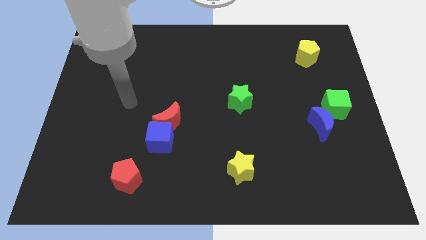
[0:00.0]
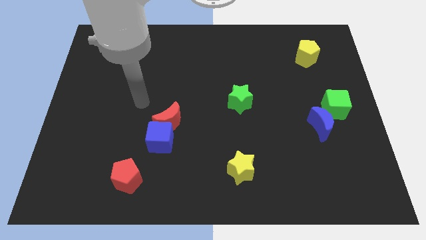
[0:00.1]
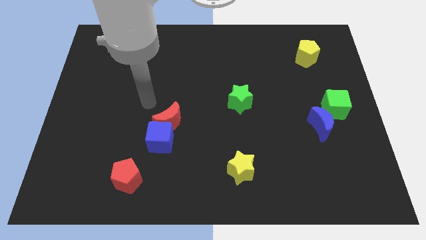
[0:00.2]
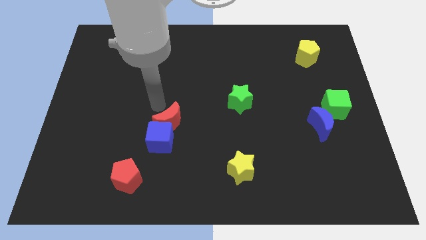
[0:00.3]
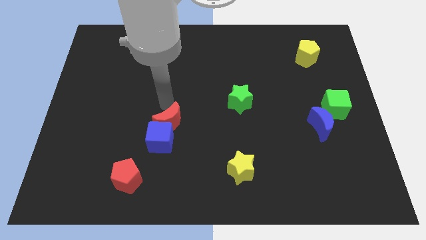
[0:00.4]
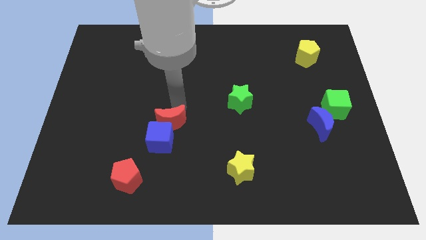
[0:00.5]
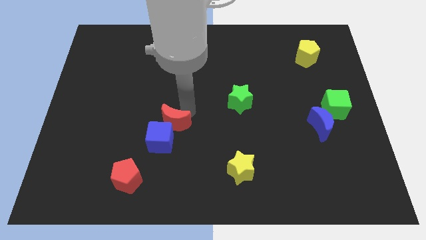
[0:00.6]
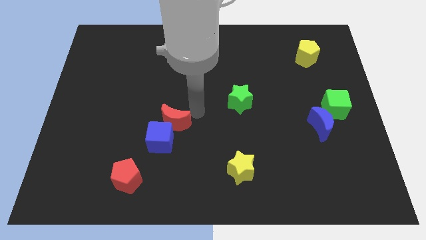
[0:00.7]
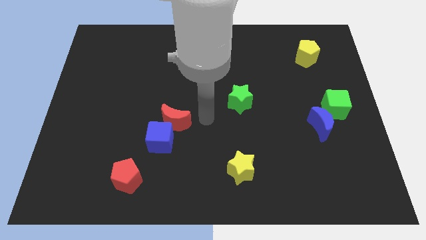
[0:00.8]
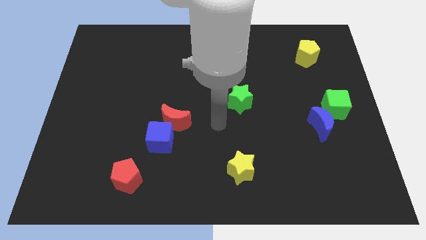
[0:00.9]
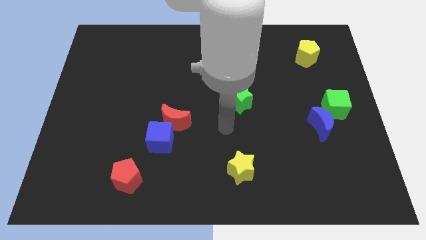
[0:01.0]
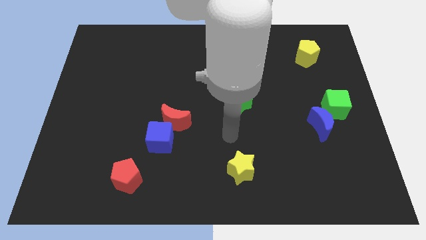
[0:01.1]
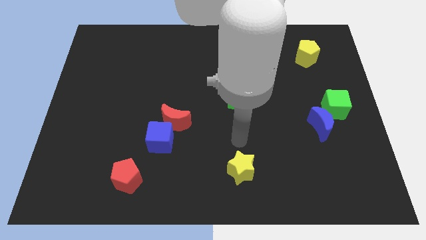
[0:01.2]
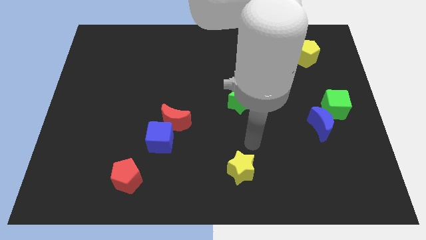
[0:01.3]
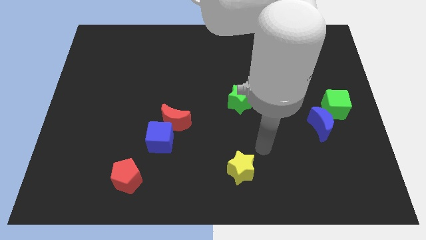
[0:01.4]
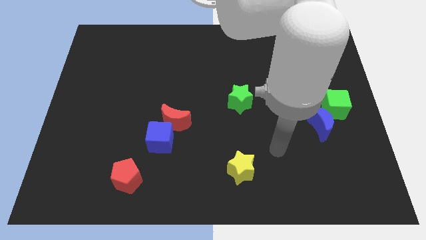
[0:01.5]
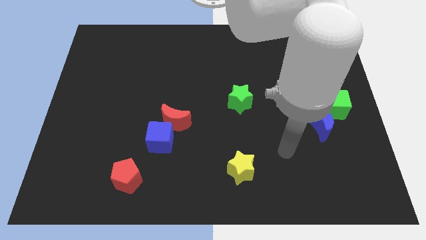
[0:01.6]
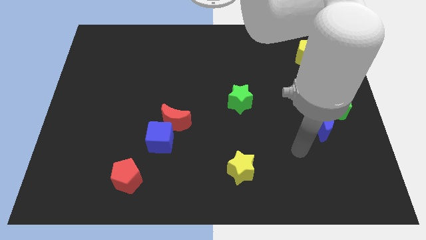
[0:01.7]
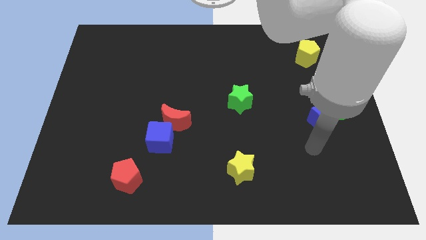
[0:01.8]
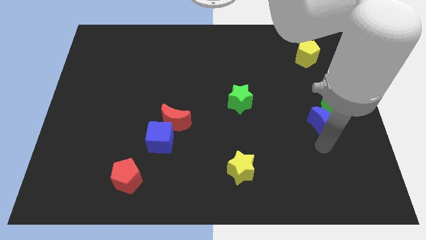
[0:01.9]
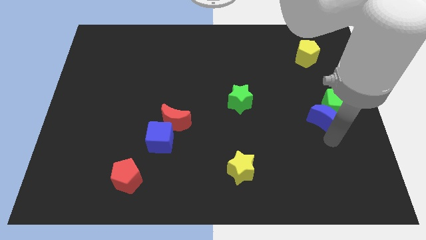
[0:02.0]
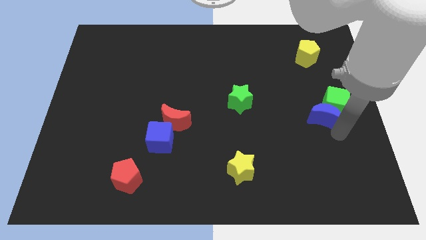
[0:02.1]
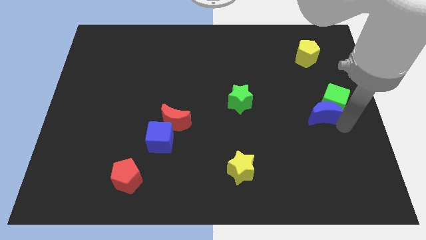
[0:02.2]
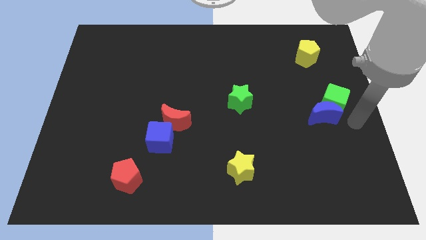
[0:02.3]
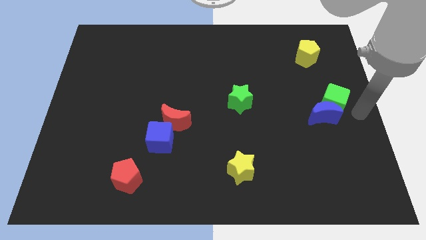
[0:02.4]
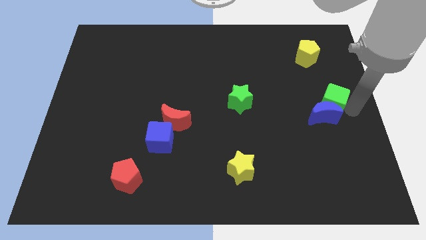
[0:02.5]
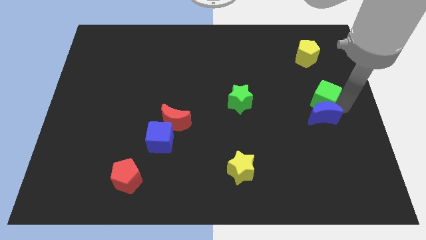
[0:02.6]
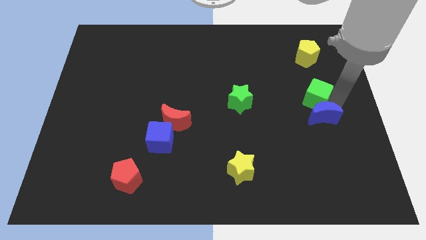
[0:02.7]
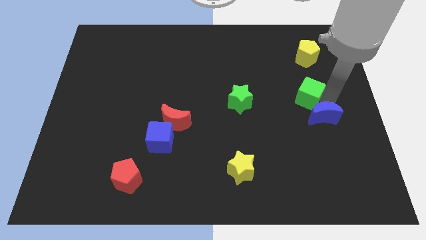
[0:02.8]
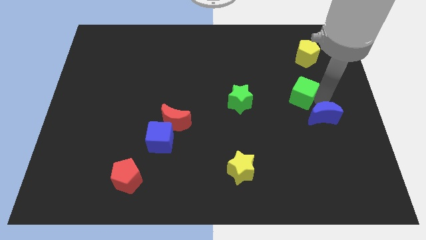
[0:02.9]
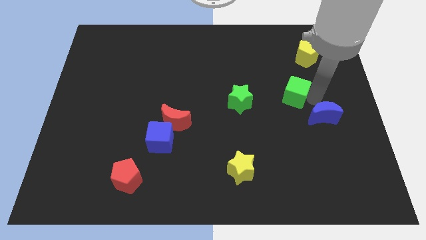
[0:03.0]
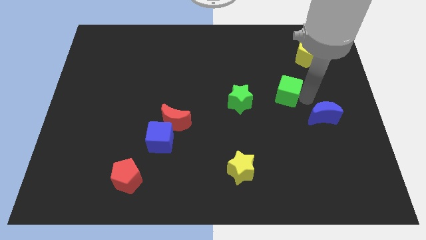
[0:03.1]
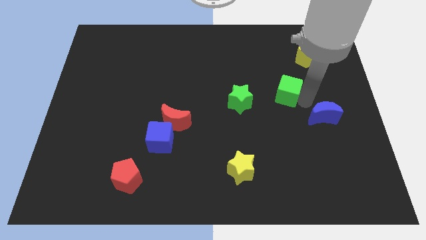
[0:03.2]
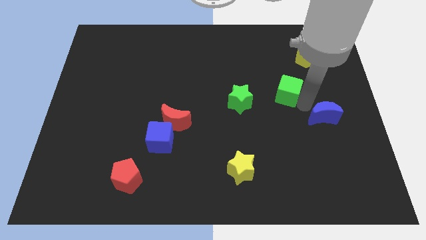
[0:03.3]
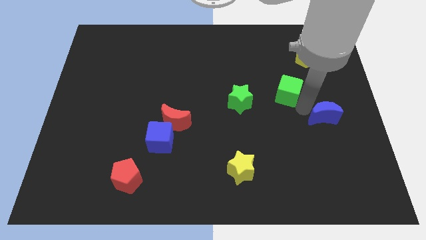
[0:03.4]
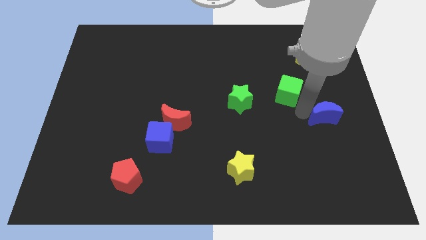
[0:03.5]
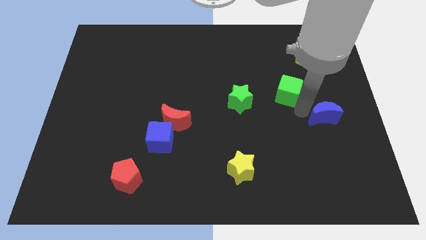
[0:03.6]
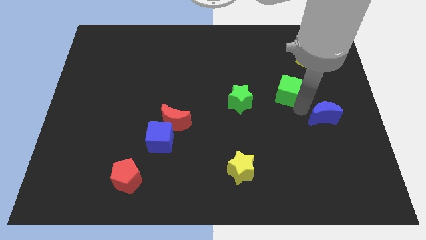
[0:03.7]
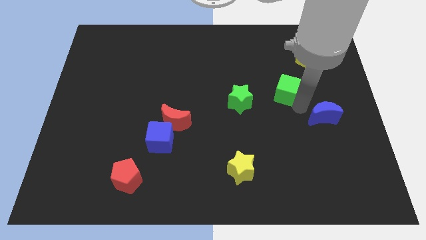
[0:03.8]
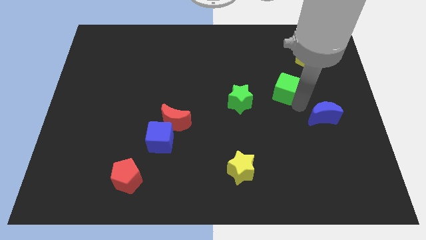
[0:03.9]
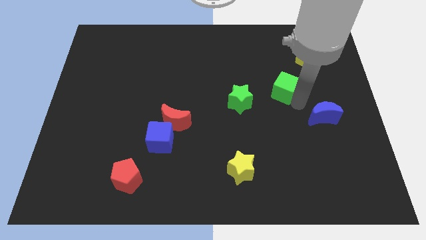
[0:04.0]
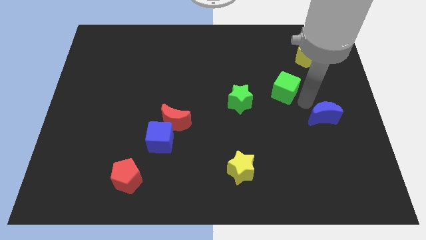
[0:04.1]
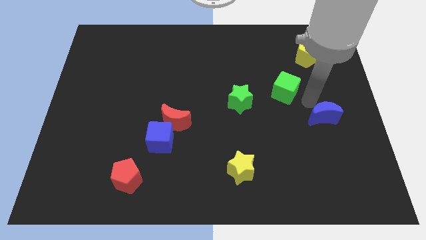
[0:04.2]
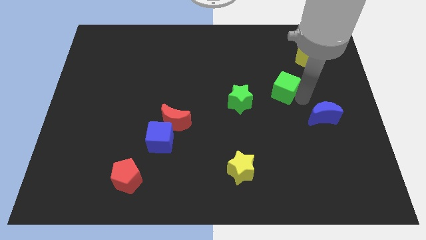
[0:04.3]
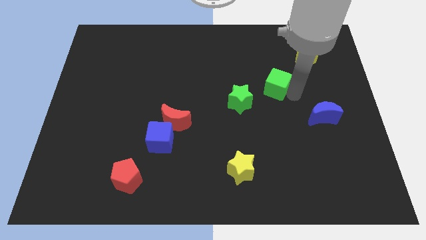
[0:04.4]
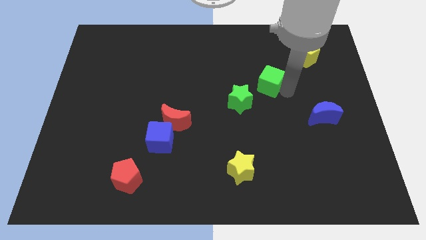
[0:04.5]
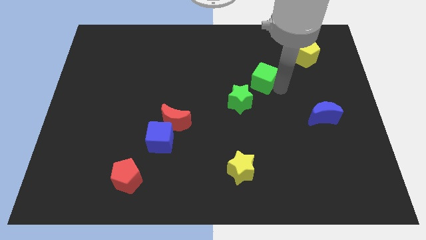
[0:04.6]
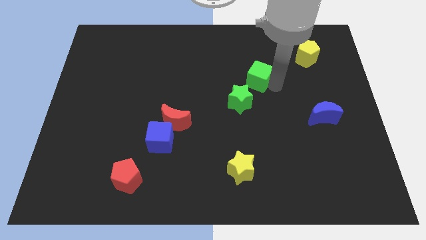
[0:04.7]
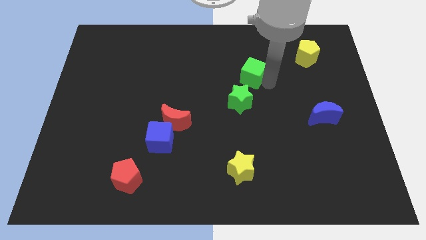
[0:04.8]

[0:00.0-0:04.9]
slide the green cube above the green star

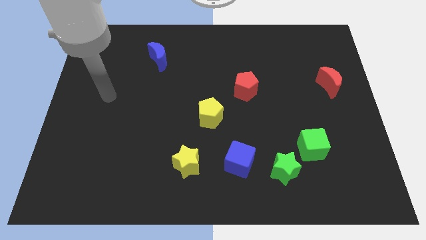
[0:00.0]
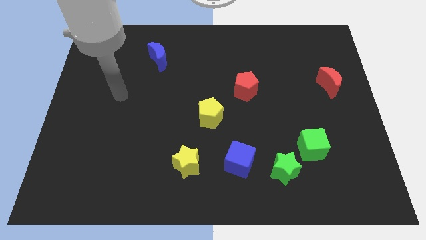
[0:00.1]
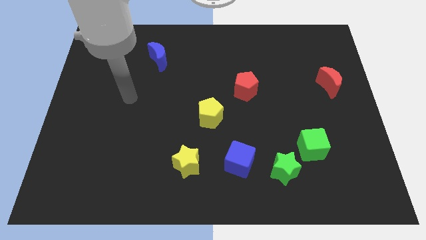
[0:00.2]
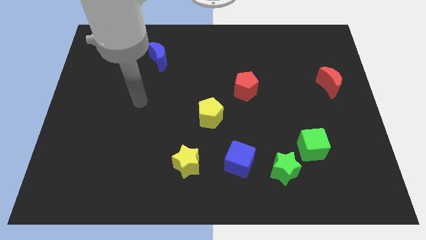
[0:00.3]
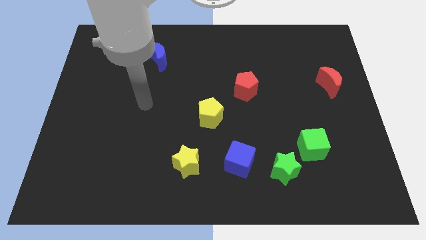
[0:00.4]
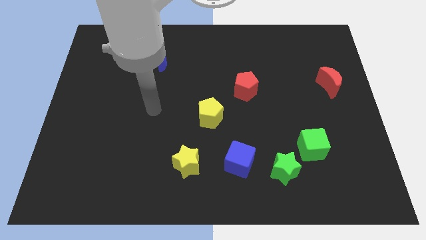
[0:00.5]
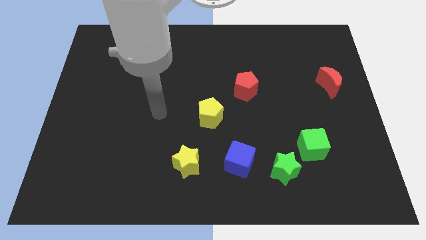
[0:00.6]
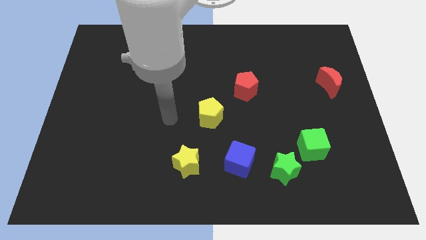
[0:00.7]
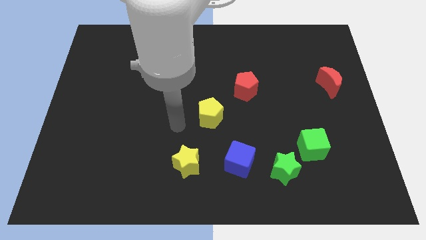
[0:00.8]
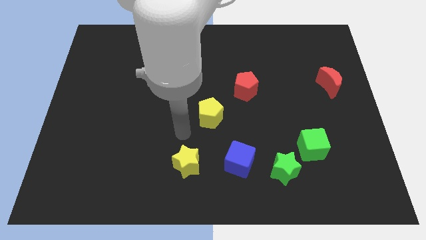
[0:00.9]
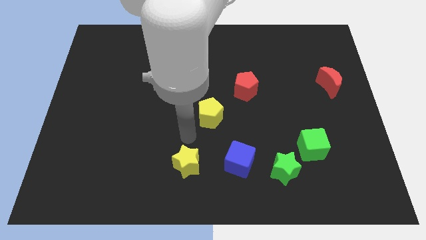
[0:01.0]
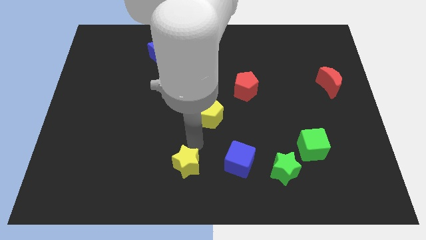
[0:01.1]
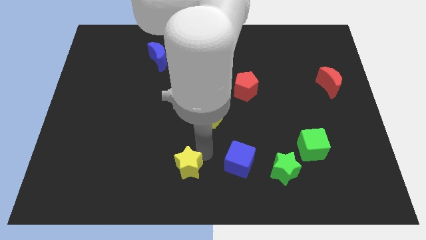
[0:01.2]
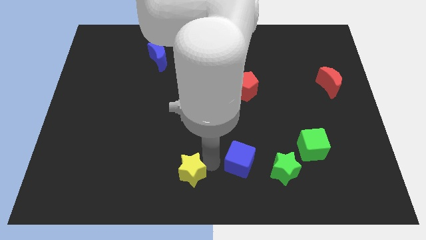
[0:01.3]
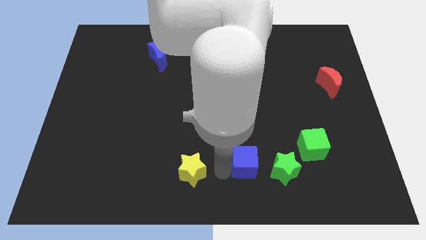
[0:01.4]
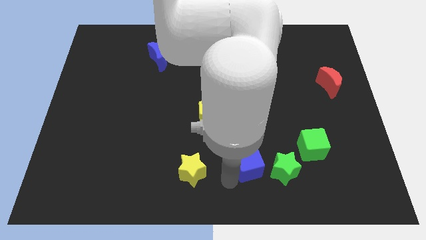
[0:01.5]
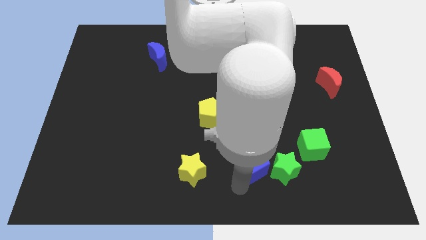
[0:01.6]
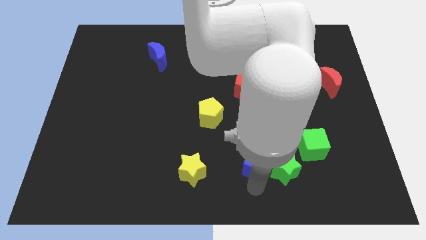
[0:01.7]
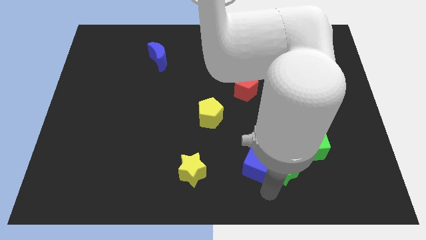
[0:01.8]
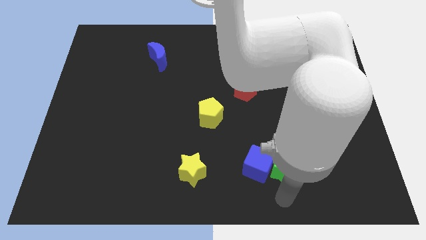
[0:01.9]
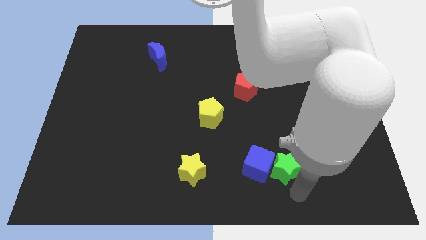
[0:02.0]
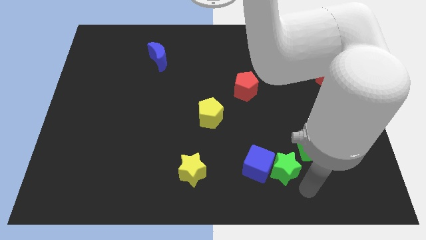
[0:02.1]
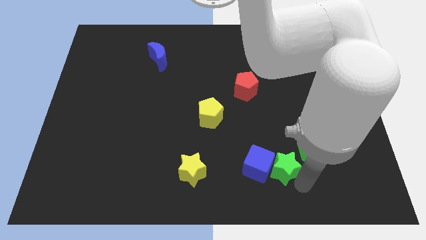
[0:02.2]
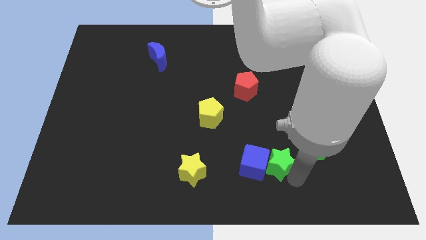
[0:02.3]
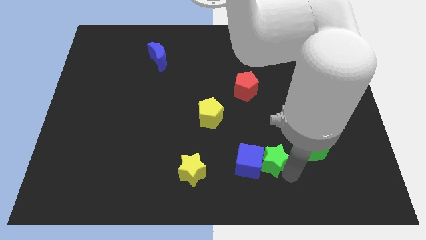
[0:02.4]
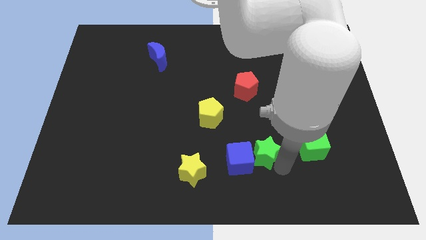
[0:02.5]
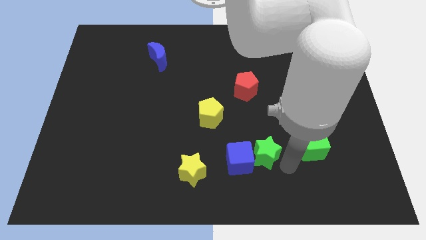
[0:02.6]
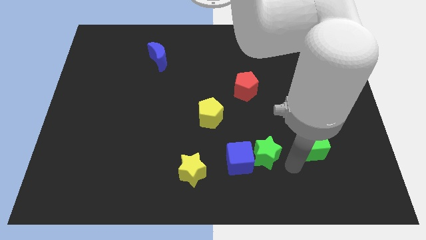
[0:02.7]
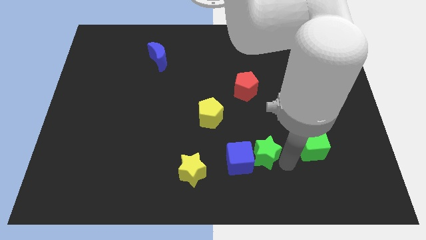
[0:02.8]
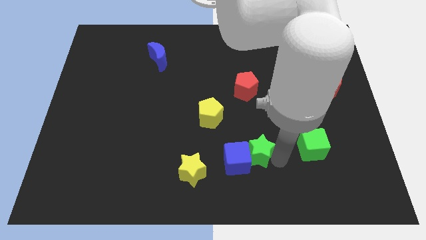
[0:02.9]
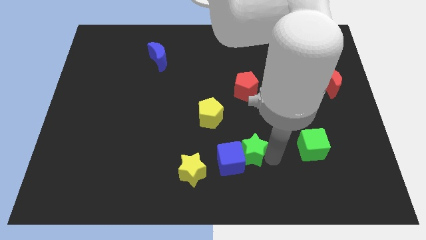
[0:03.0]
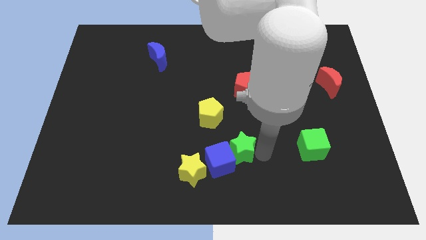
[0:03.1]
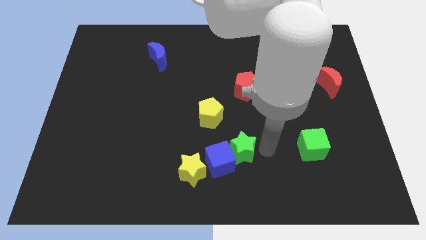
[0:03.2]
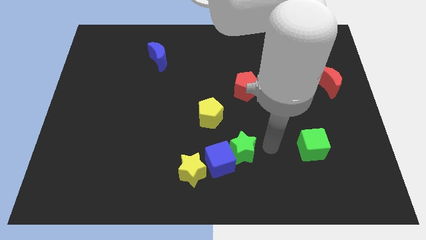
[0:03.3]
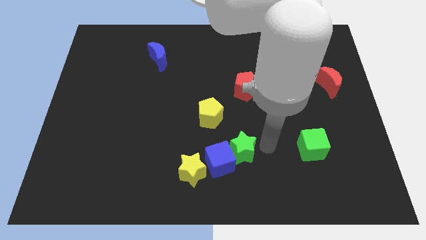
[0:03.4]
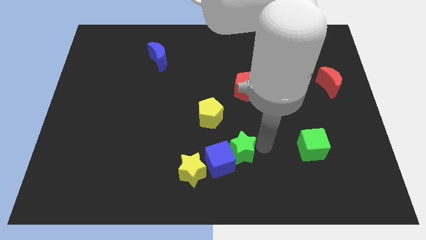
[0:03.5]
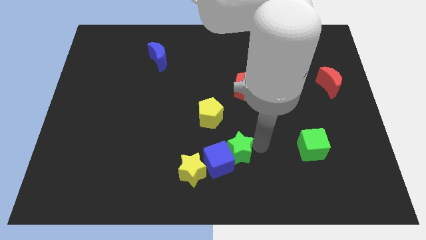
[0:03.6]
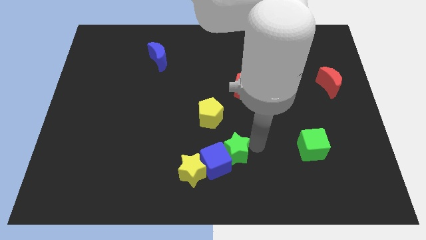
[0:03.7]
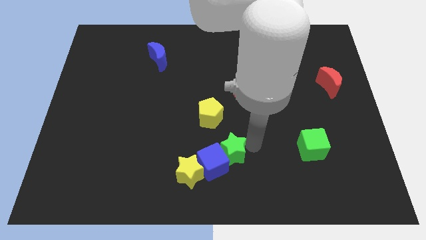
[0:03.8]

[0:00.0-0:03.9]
put the green star to the bottom side of the yellow pentagon
